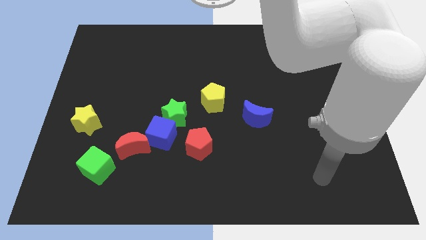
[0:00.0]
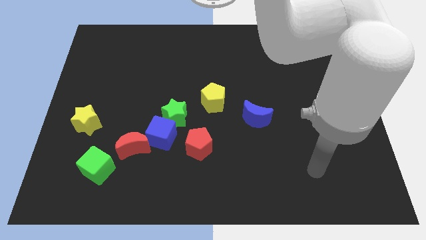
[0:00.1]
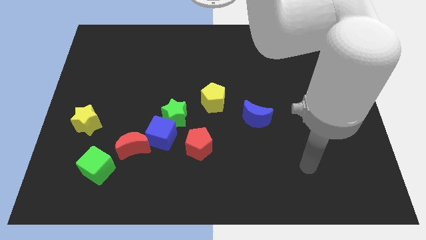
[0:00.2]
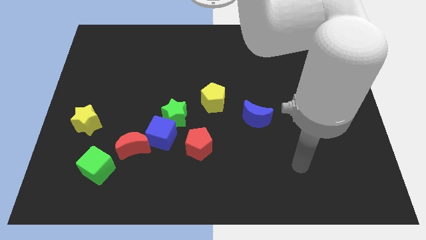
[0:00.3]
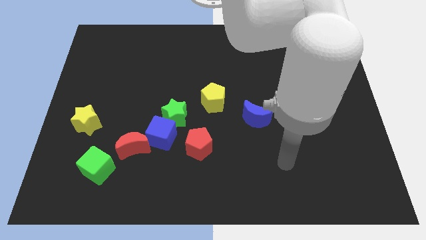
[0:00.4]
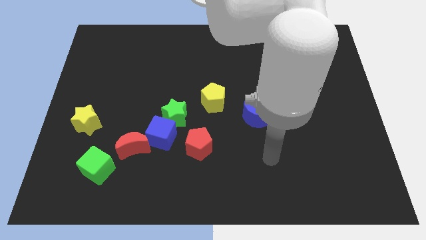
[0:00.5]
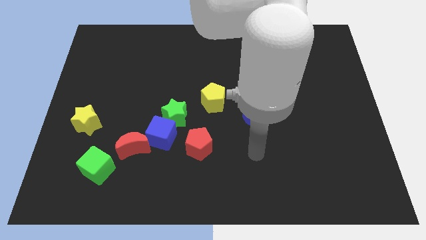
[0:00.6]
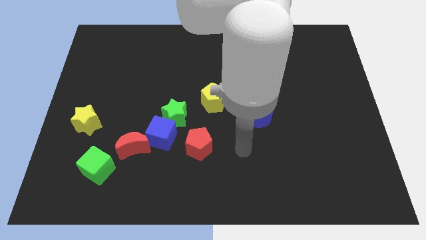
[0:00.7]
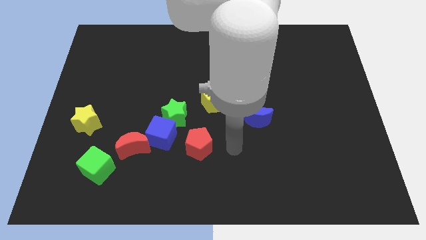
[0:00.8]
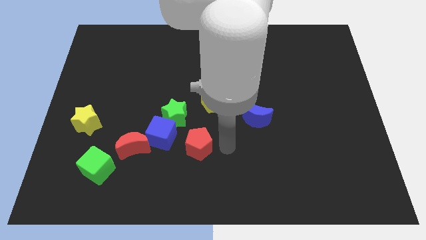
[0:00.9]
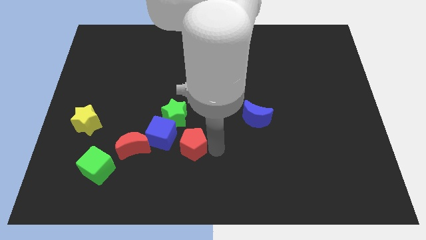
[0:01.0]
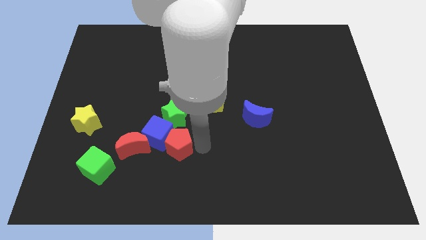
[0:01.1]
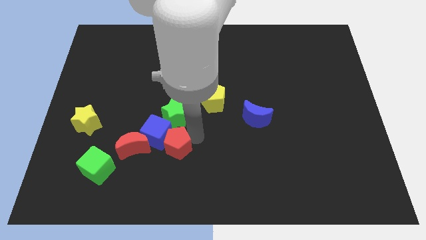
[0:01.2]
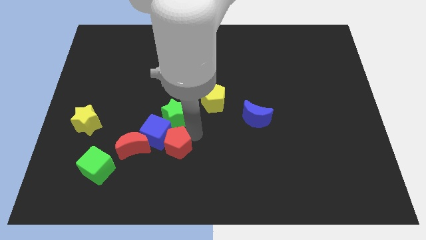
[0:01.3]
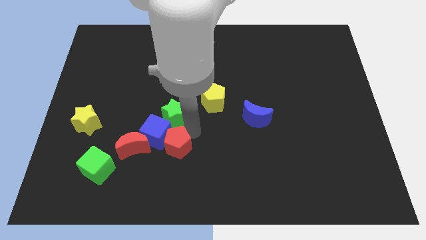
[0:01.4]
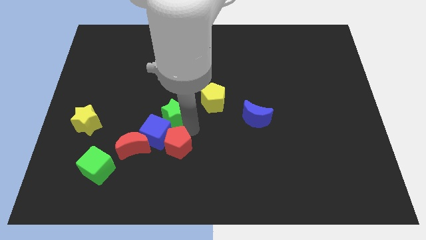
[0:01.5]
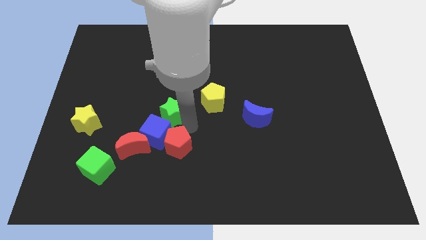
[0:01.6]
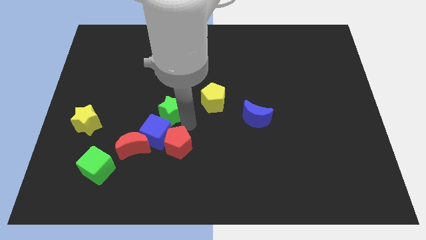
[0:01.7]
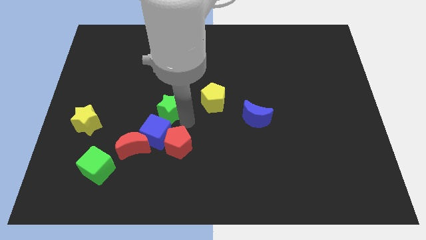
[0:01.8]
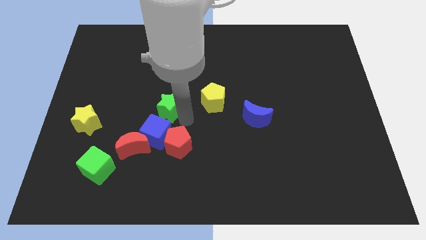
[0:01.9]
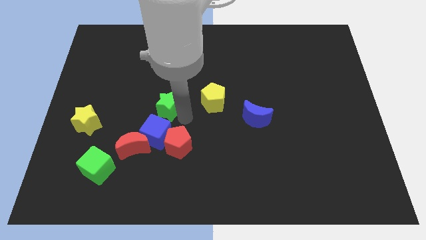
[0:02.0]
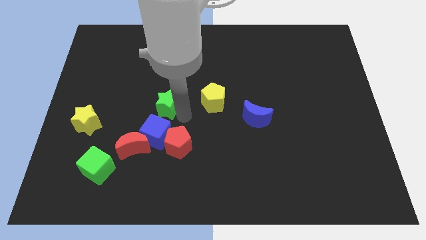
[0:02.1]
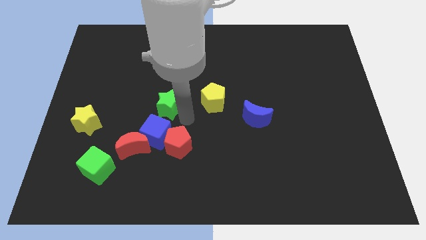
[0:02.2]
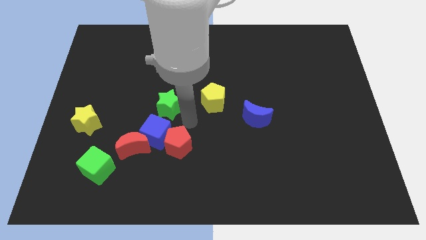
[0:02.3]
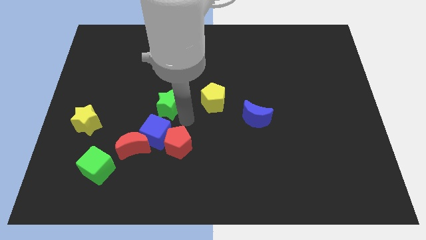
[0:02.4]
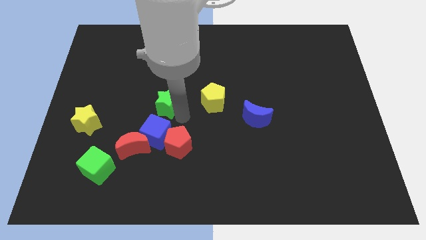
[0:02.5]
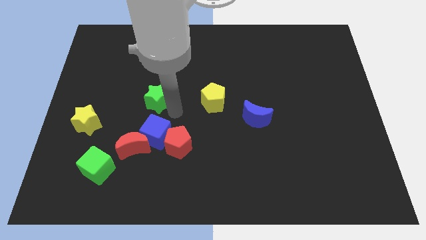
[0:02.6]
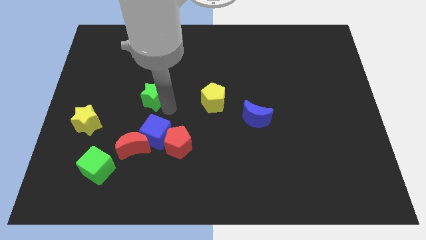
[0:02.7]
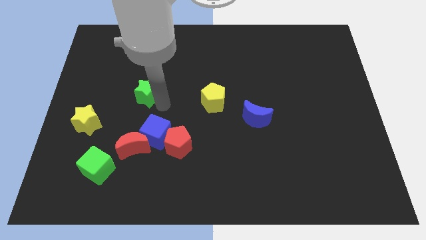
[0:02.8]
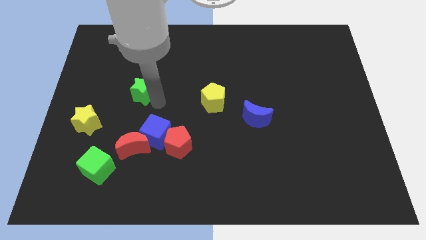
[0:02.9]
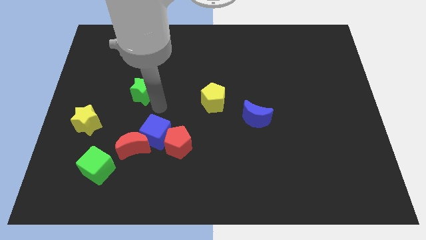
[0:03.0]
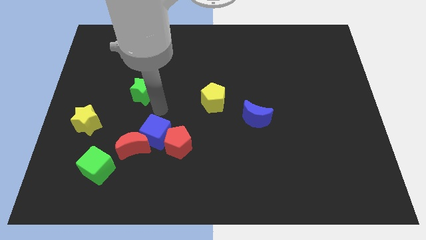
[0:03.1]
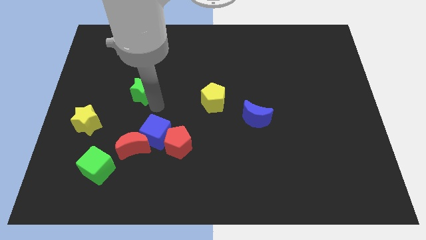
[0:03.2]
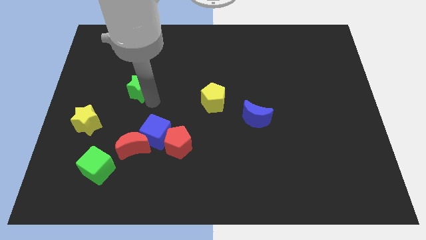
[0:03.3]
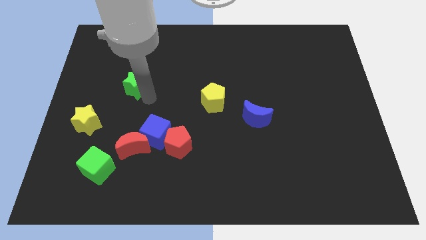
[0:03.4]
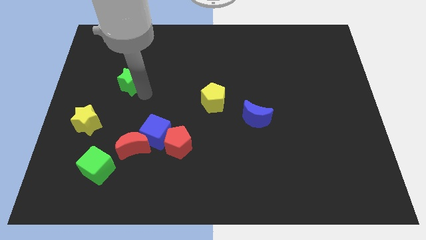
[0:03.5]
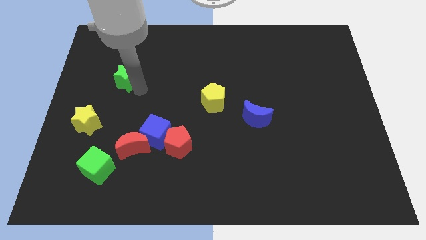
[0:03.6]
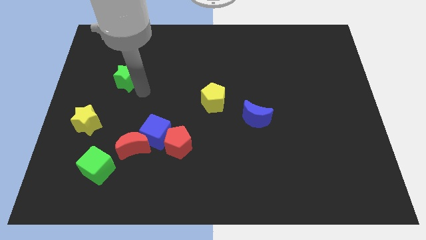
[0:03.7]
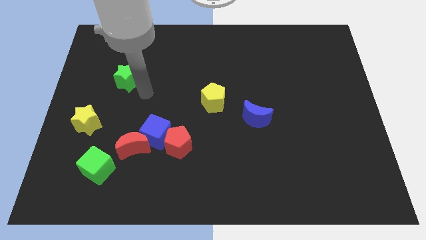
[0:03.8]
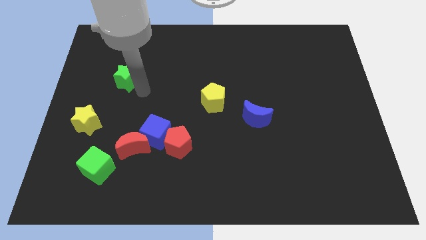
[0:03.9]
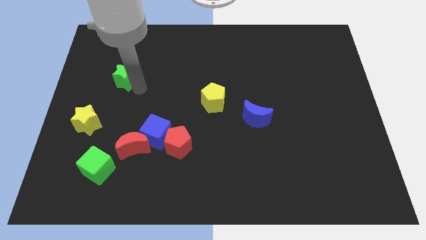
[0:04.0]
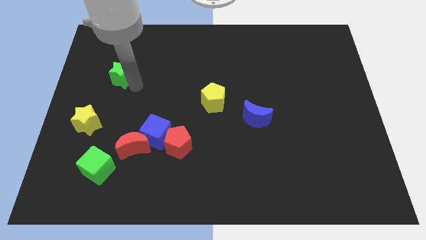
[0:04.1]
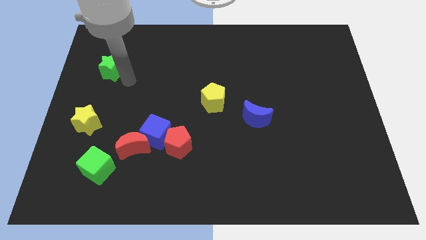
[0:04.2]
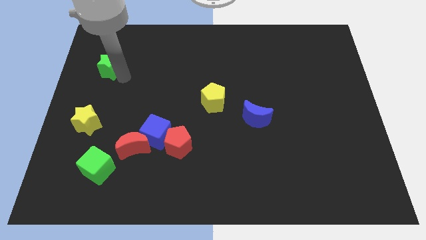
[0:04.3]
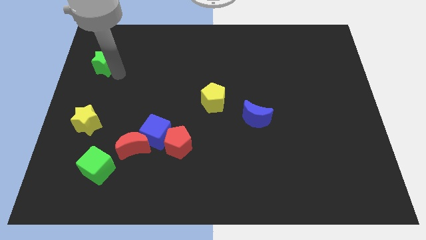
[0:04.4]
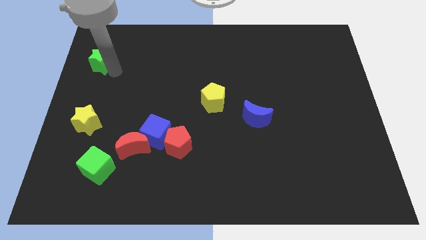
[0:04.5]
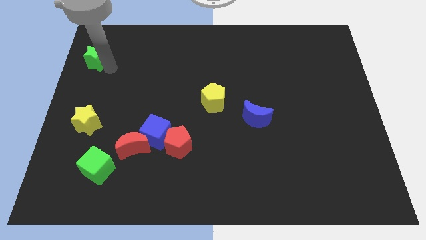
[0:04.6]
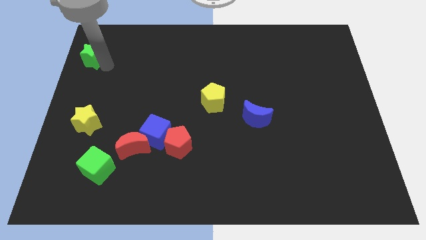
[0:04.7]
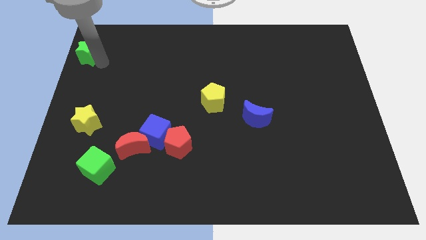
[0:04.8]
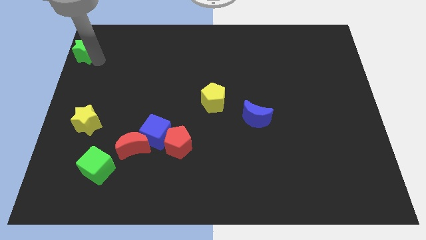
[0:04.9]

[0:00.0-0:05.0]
slide the green star to the top left of the board

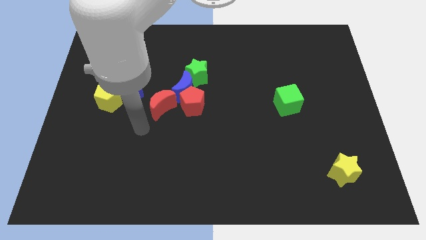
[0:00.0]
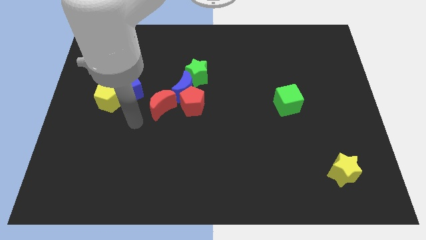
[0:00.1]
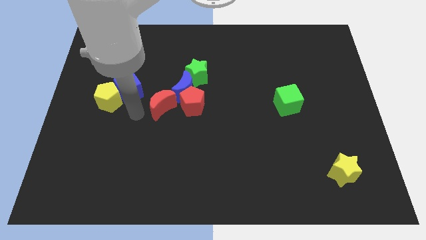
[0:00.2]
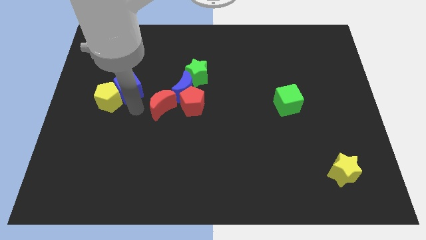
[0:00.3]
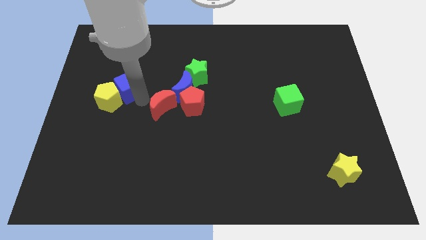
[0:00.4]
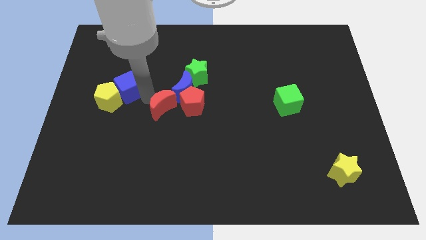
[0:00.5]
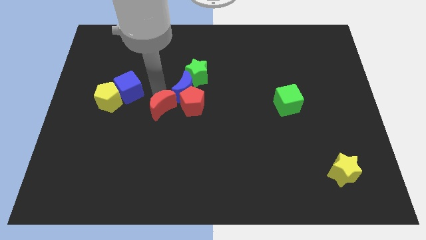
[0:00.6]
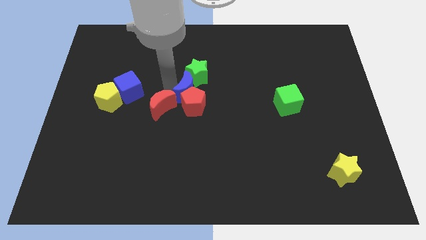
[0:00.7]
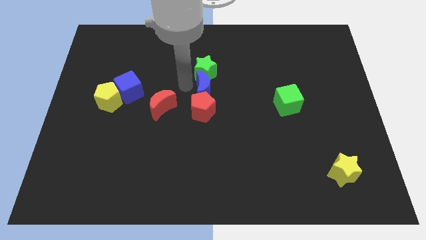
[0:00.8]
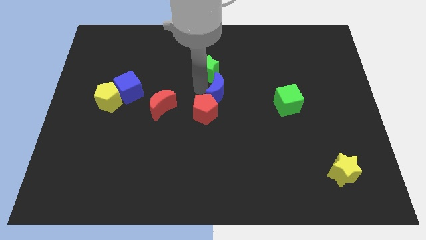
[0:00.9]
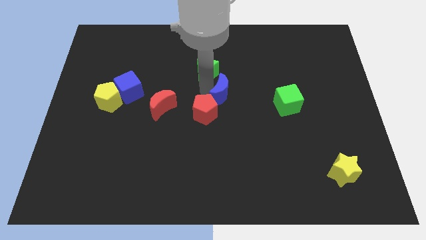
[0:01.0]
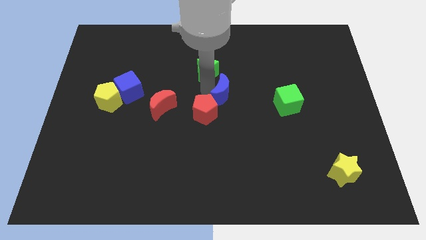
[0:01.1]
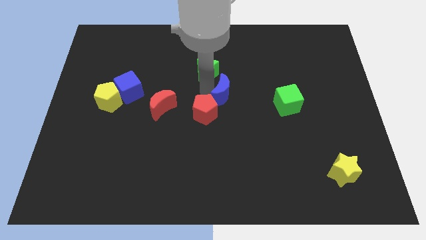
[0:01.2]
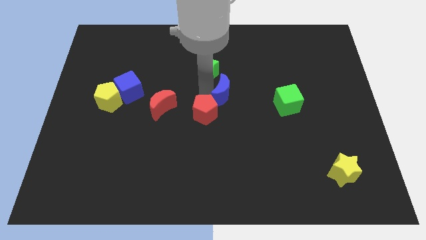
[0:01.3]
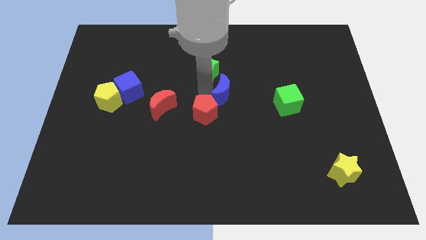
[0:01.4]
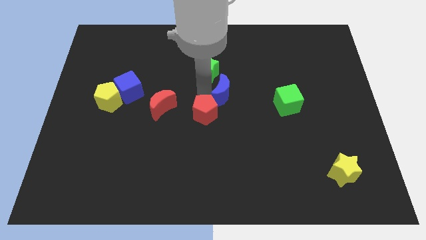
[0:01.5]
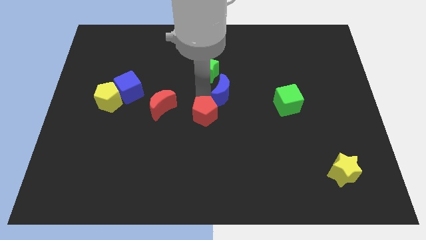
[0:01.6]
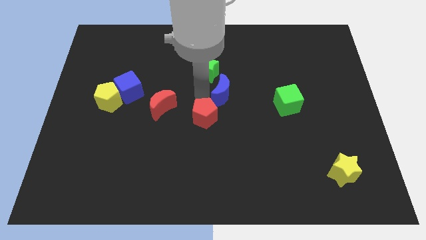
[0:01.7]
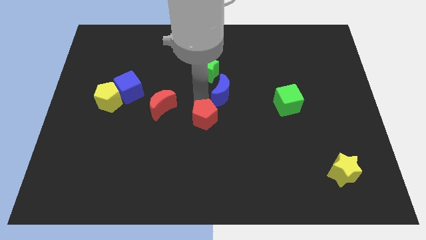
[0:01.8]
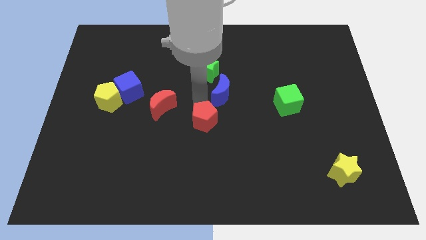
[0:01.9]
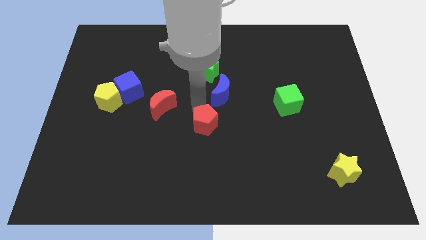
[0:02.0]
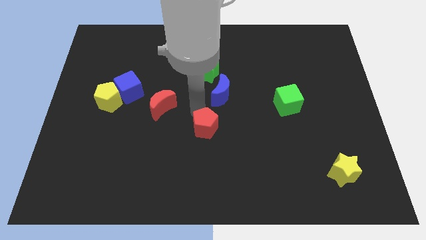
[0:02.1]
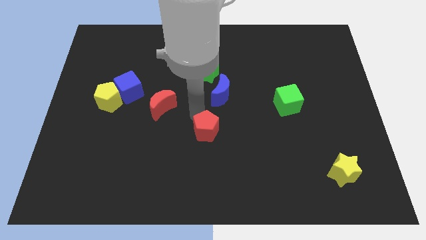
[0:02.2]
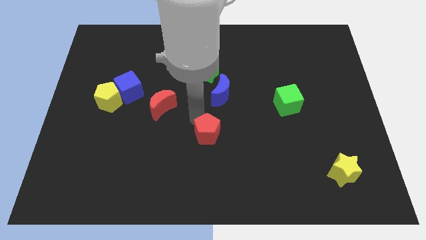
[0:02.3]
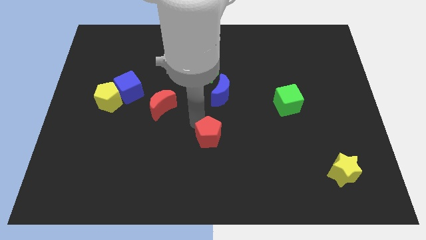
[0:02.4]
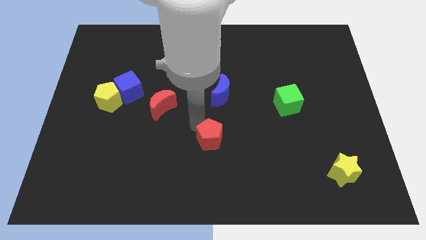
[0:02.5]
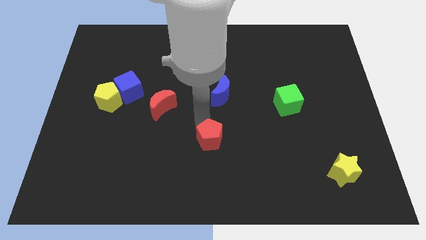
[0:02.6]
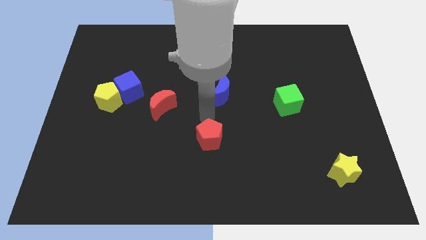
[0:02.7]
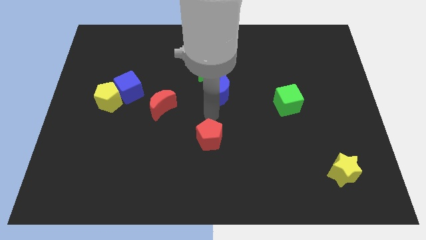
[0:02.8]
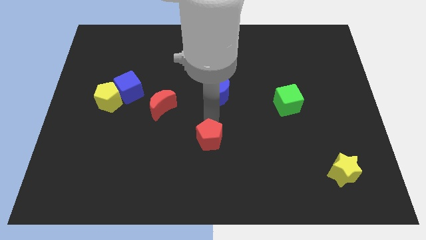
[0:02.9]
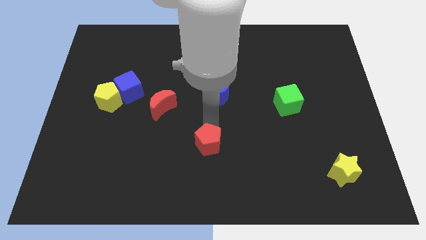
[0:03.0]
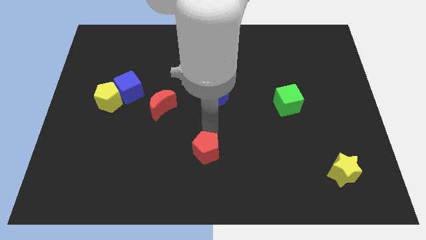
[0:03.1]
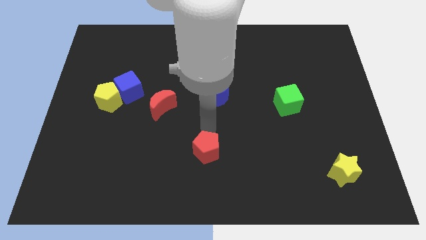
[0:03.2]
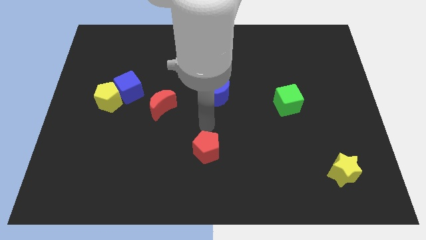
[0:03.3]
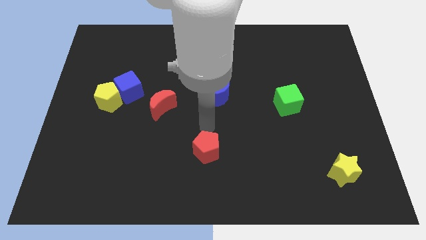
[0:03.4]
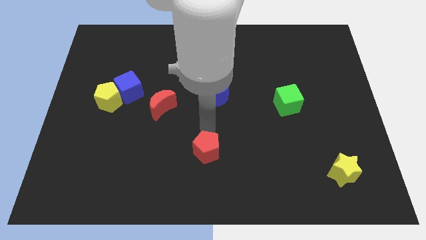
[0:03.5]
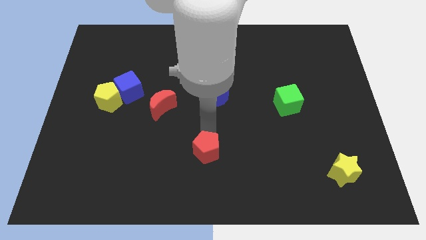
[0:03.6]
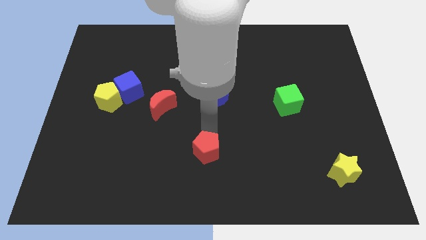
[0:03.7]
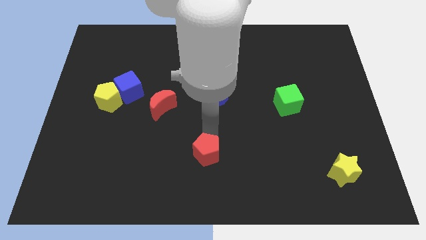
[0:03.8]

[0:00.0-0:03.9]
slide the red pentagon to the bottom
